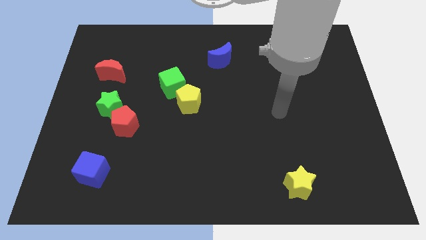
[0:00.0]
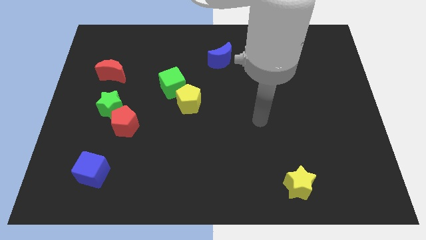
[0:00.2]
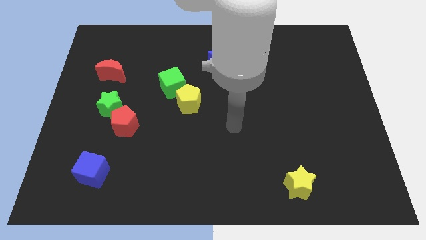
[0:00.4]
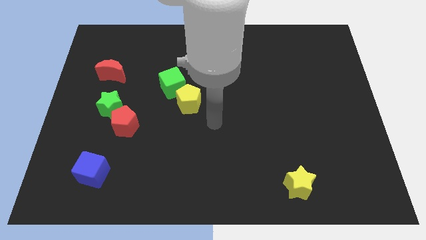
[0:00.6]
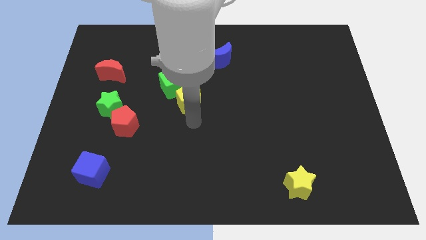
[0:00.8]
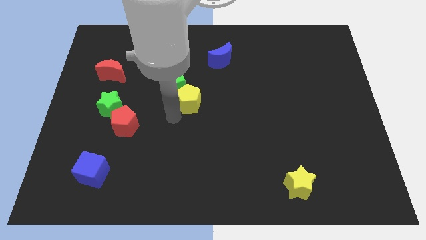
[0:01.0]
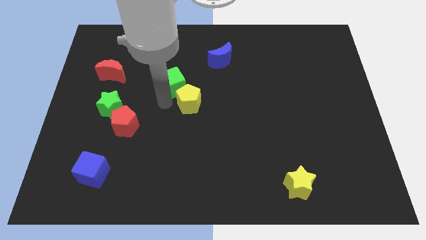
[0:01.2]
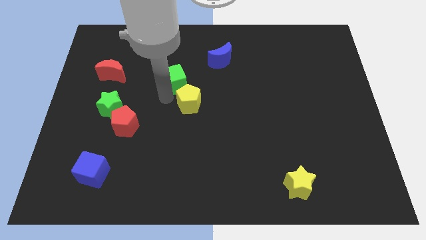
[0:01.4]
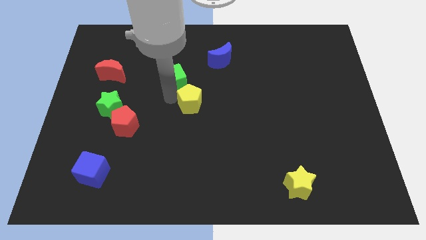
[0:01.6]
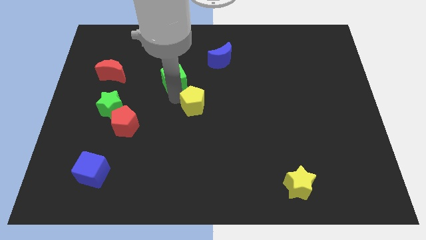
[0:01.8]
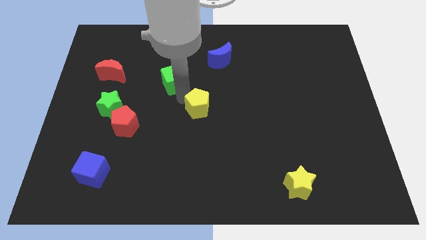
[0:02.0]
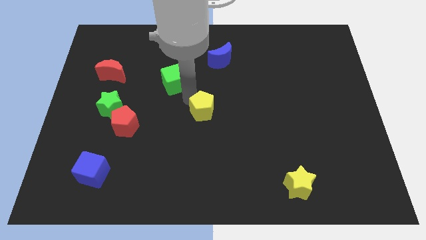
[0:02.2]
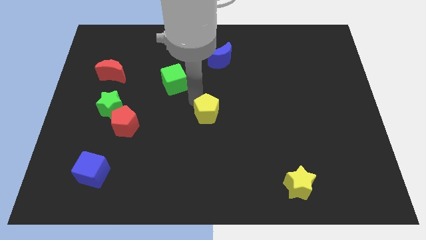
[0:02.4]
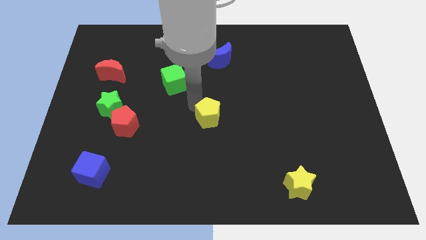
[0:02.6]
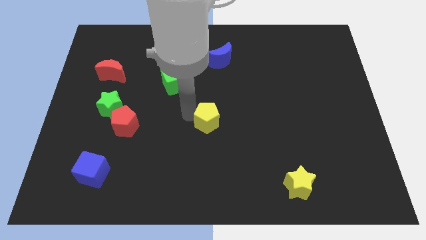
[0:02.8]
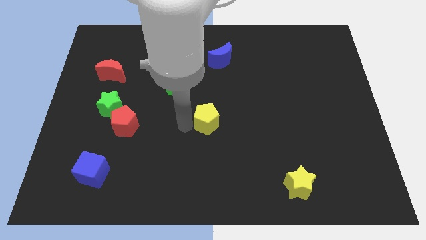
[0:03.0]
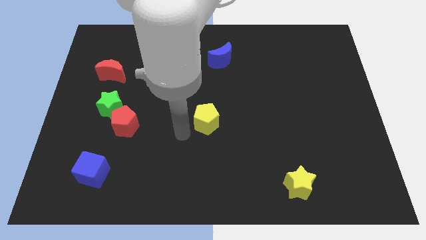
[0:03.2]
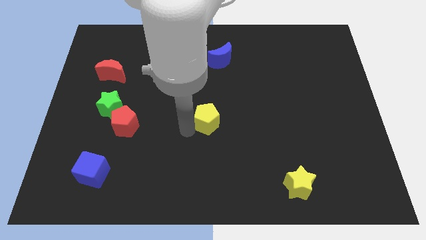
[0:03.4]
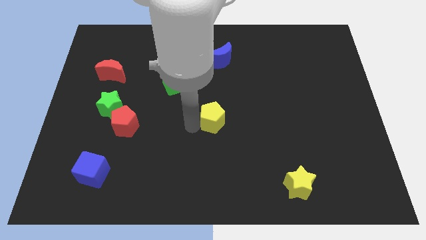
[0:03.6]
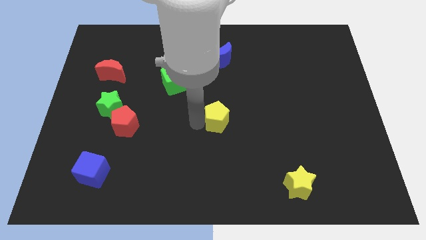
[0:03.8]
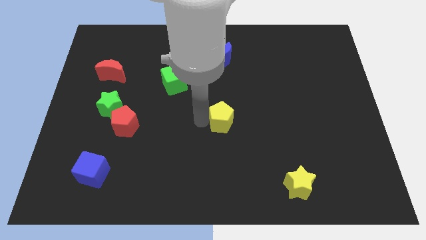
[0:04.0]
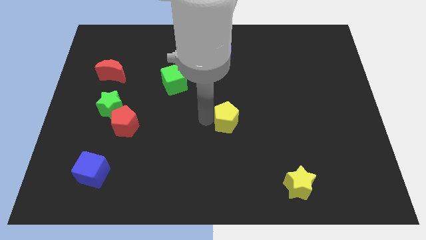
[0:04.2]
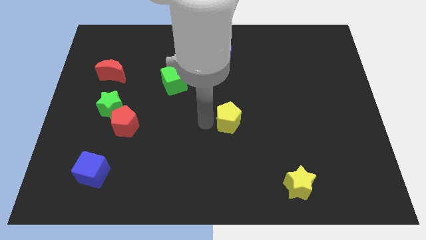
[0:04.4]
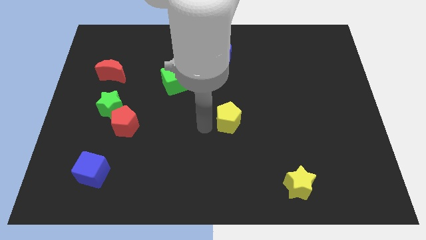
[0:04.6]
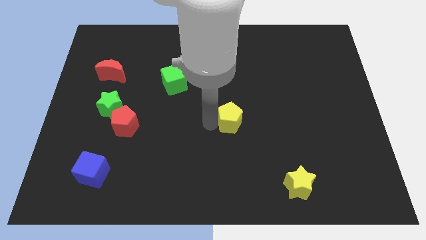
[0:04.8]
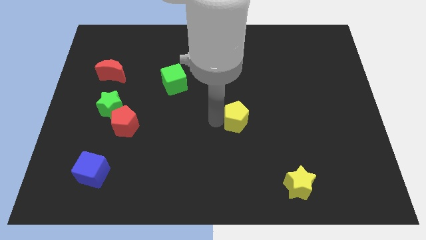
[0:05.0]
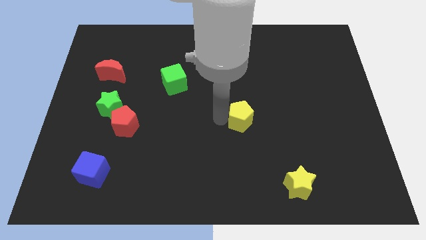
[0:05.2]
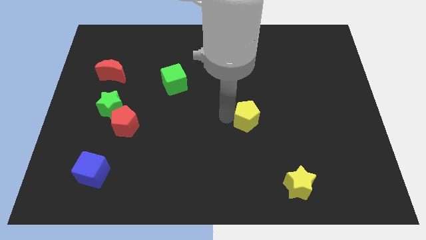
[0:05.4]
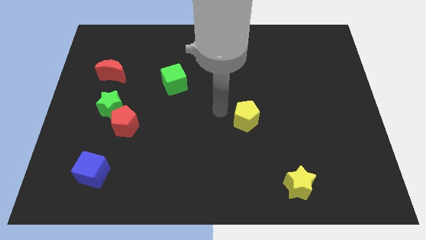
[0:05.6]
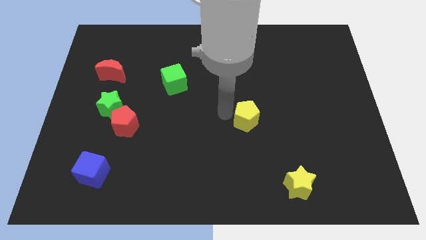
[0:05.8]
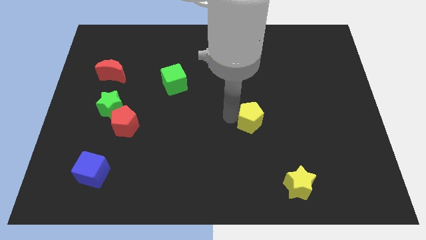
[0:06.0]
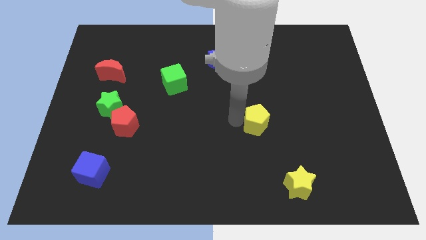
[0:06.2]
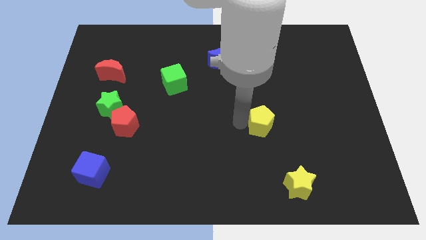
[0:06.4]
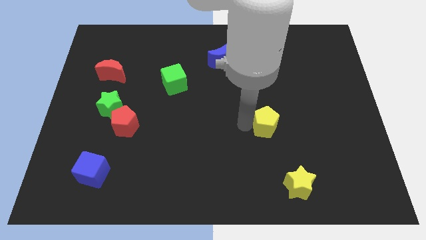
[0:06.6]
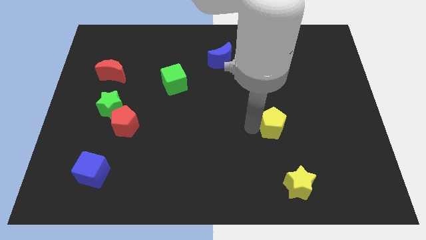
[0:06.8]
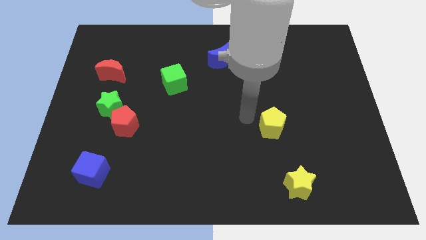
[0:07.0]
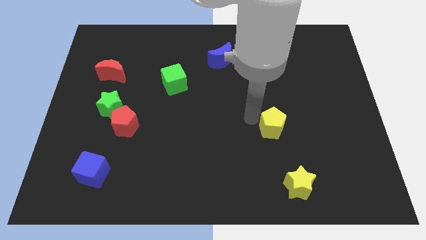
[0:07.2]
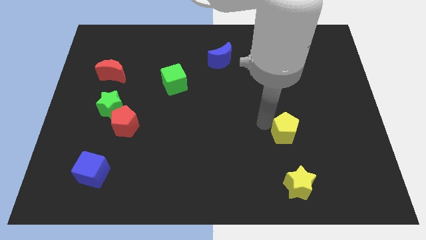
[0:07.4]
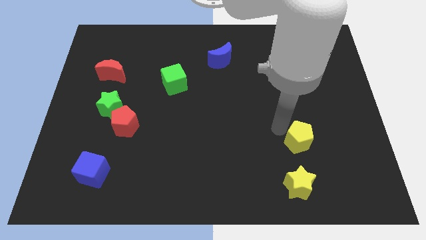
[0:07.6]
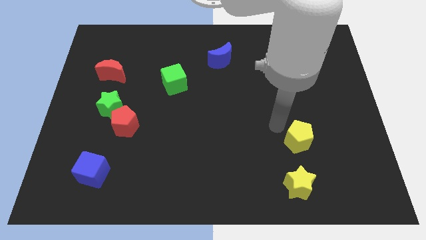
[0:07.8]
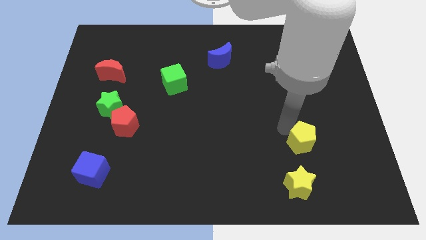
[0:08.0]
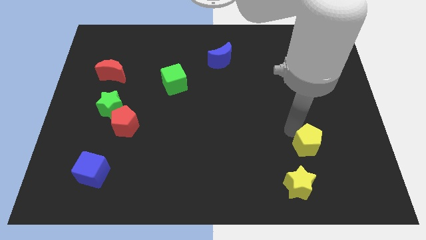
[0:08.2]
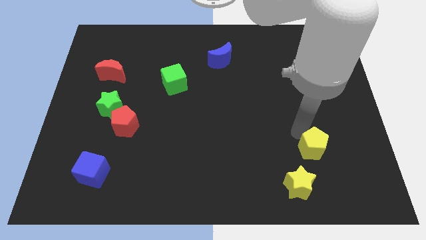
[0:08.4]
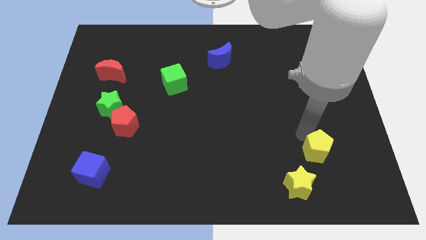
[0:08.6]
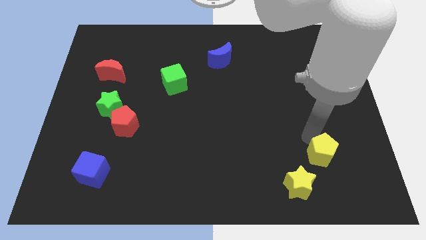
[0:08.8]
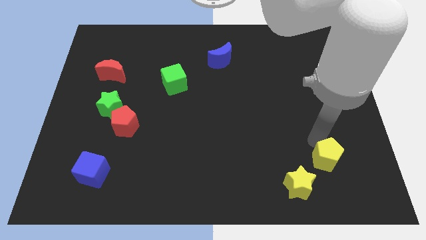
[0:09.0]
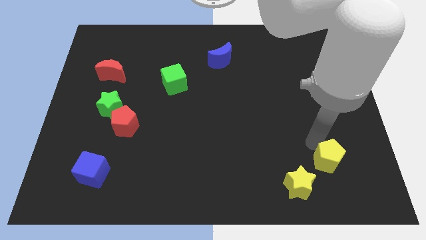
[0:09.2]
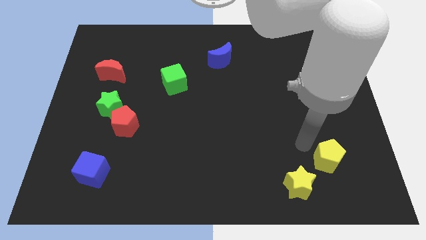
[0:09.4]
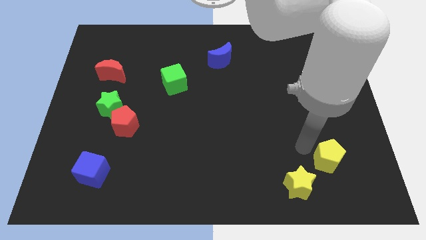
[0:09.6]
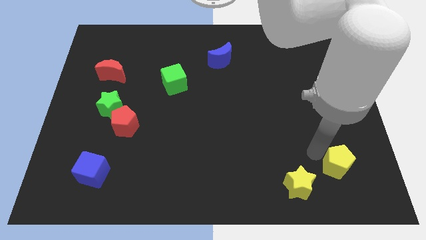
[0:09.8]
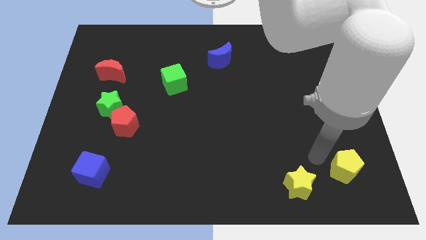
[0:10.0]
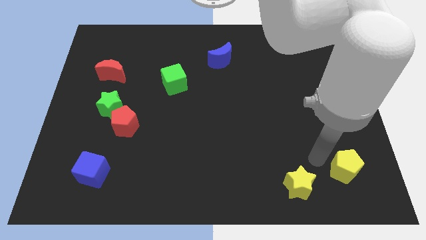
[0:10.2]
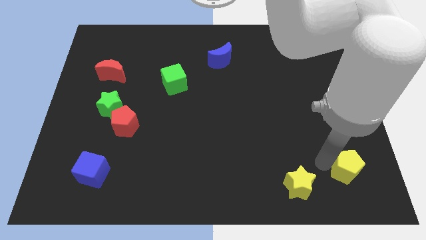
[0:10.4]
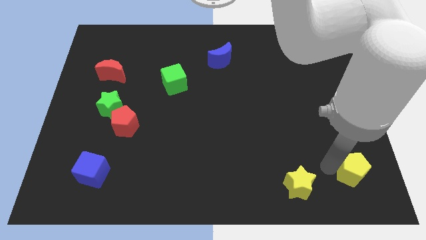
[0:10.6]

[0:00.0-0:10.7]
put the yellow pentagon to the bottom right of the board

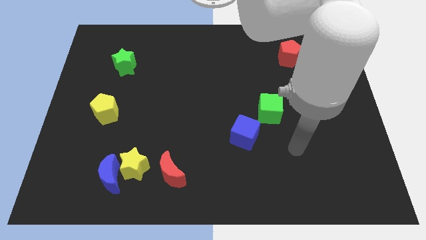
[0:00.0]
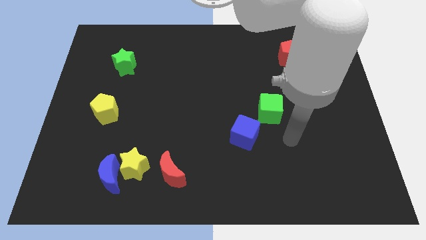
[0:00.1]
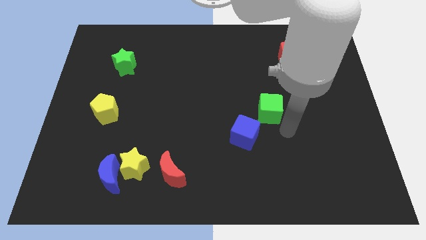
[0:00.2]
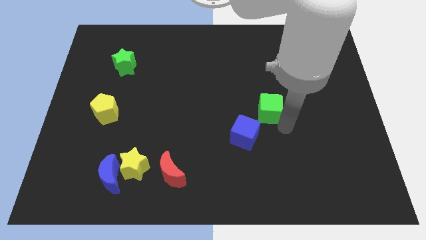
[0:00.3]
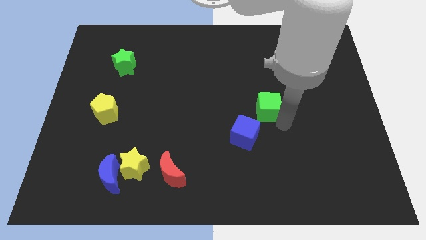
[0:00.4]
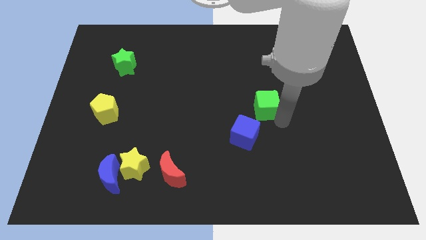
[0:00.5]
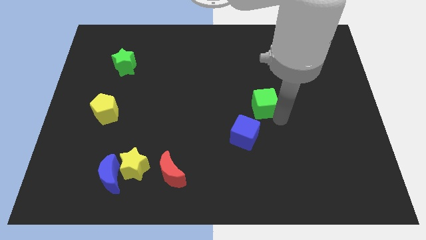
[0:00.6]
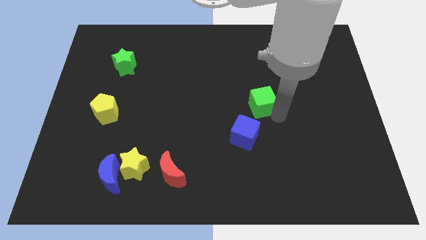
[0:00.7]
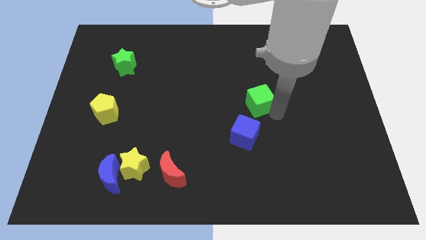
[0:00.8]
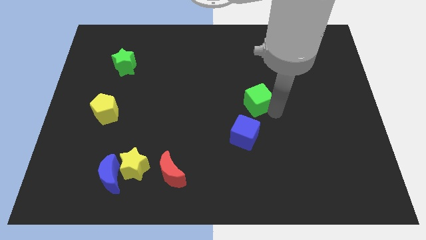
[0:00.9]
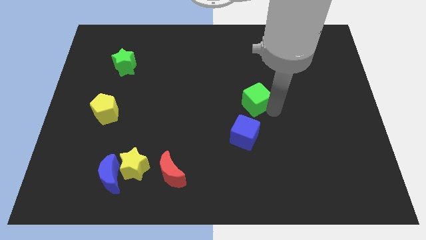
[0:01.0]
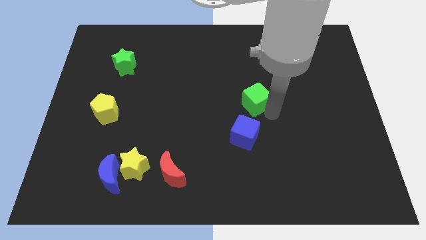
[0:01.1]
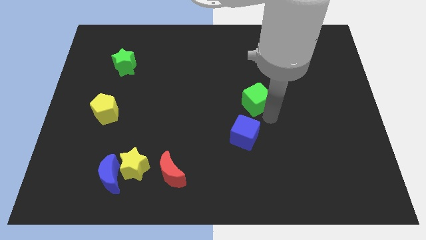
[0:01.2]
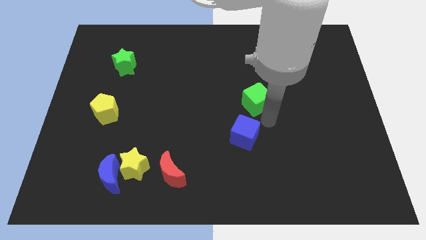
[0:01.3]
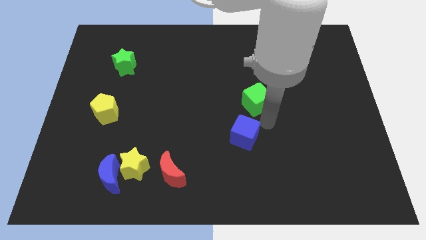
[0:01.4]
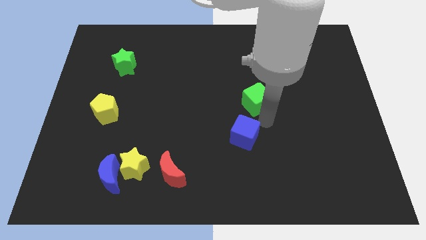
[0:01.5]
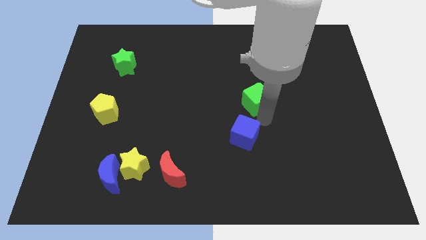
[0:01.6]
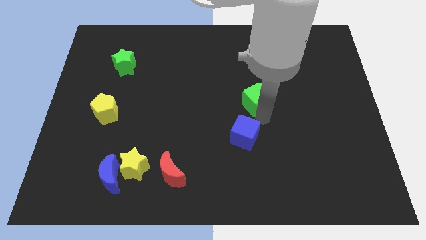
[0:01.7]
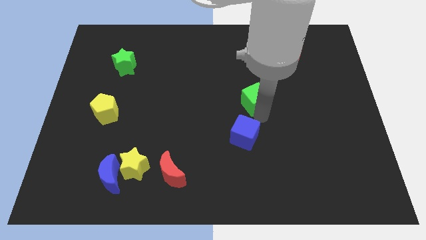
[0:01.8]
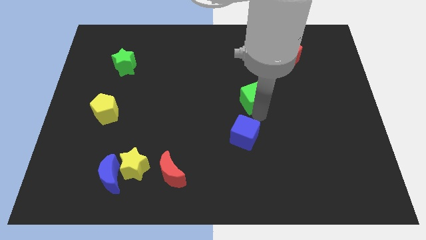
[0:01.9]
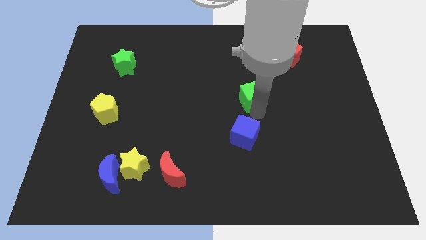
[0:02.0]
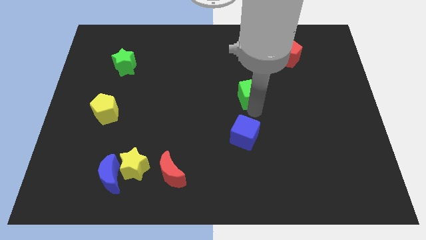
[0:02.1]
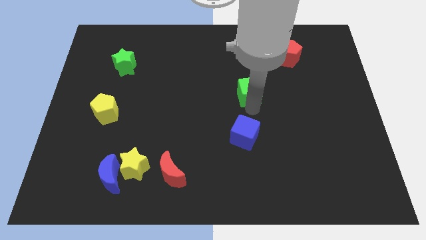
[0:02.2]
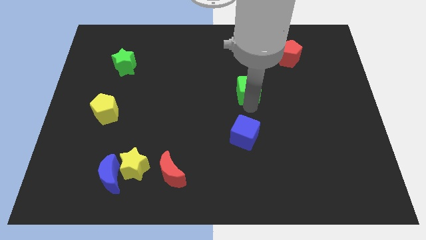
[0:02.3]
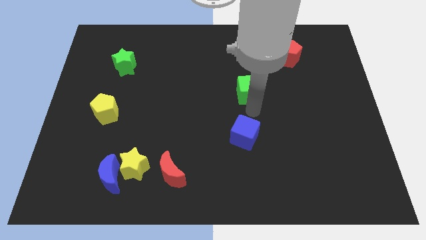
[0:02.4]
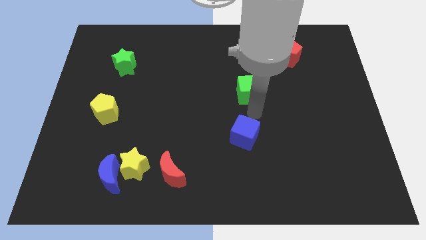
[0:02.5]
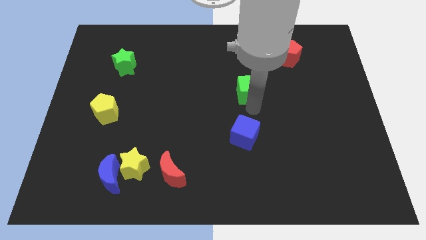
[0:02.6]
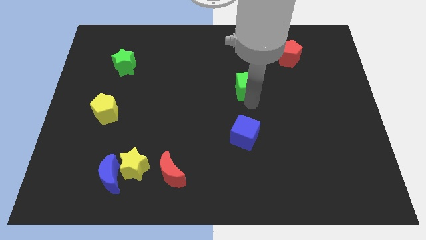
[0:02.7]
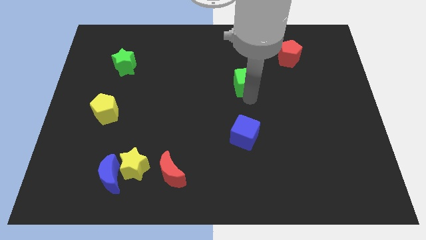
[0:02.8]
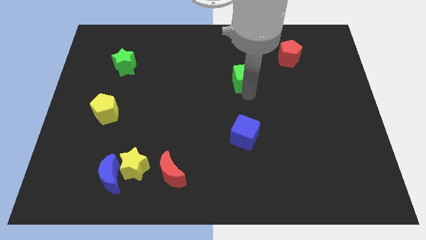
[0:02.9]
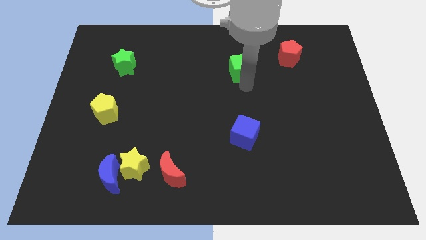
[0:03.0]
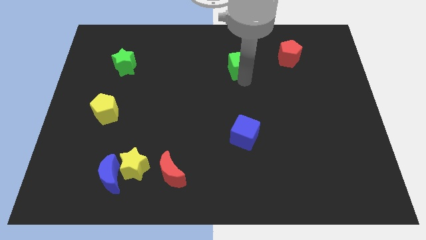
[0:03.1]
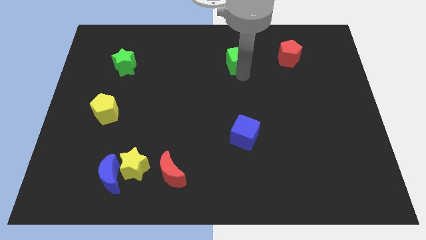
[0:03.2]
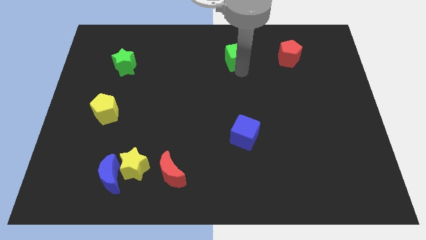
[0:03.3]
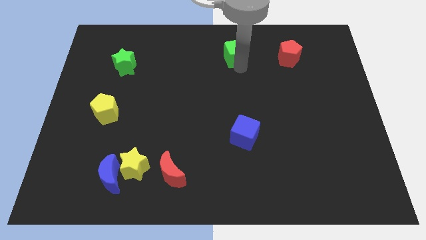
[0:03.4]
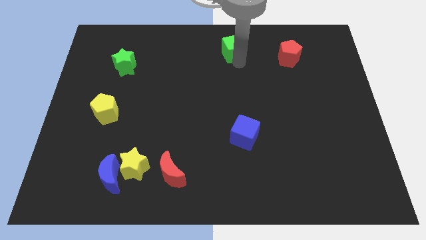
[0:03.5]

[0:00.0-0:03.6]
put the green cube to the towards your base
